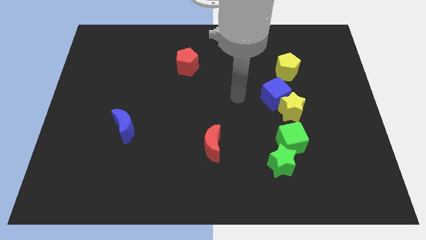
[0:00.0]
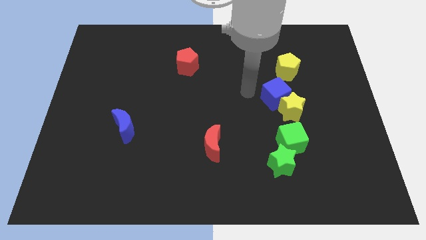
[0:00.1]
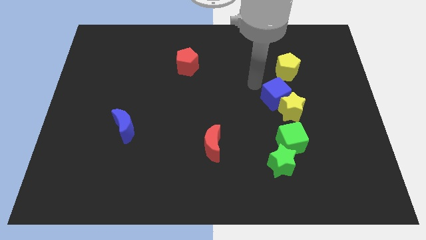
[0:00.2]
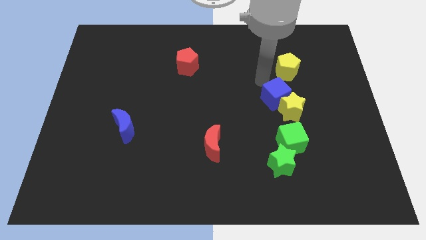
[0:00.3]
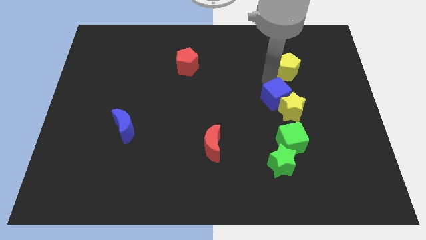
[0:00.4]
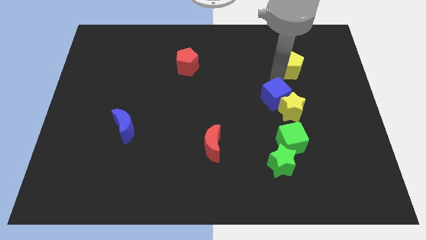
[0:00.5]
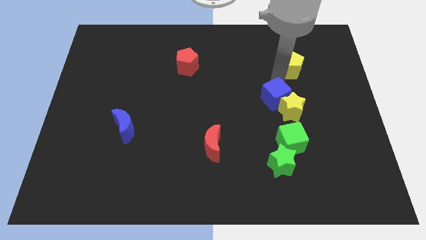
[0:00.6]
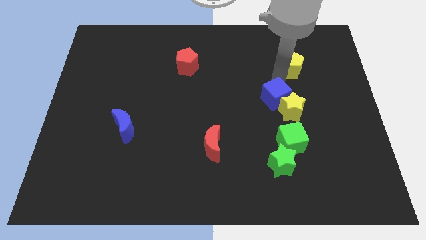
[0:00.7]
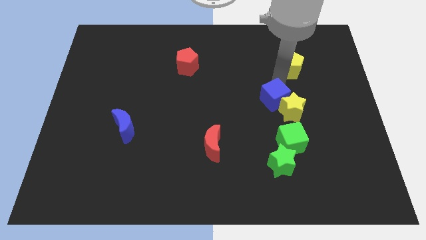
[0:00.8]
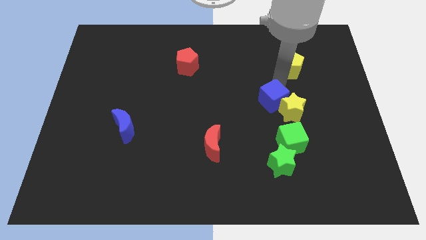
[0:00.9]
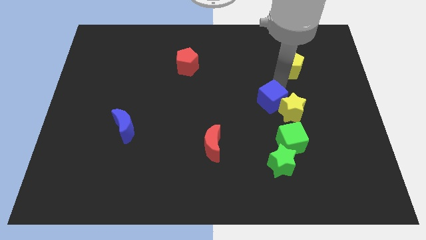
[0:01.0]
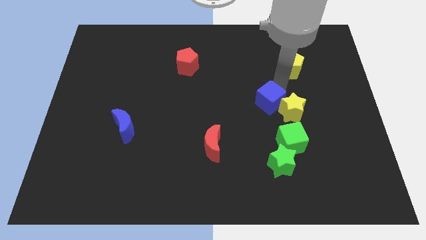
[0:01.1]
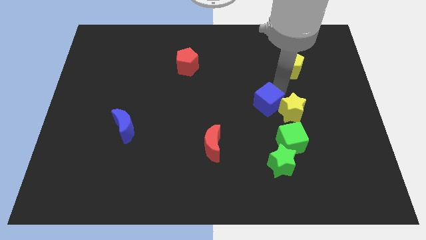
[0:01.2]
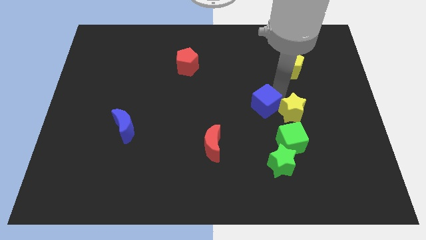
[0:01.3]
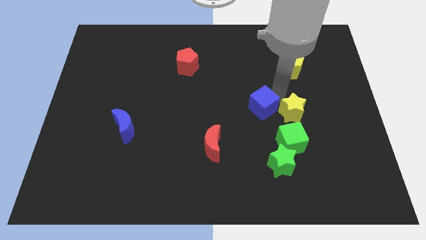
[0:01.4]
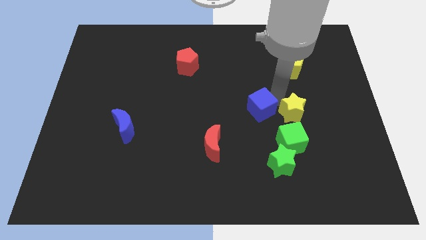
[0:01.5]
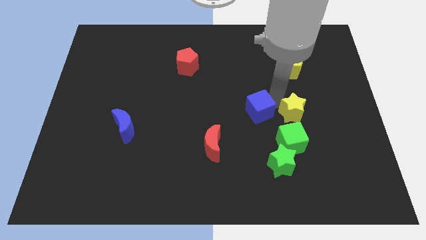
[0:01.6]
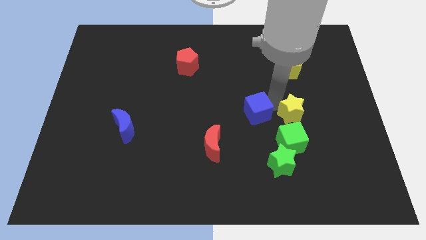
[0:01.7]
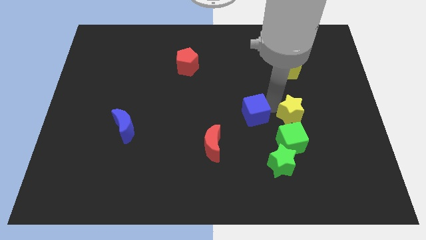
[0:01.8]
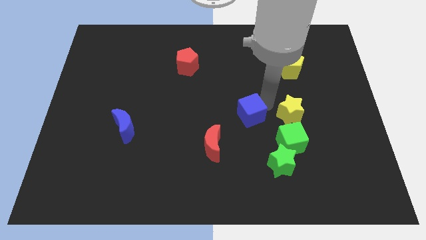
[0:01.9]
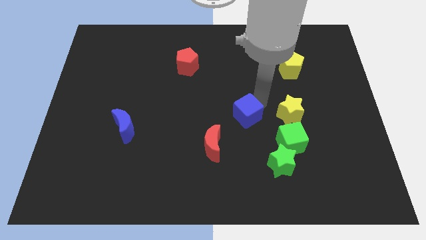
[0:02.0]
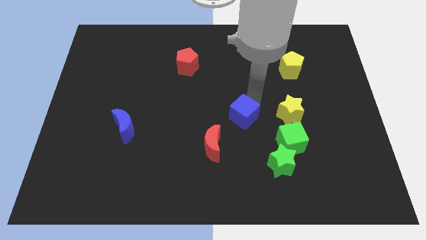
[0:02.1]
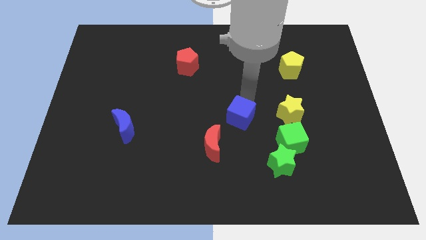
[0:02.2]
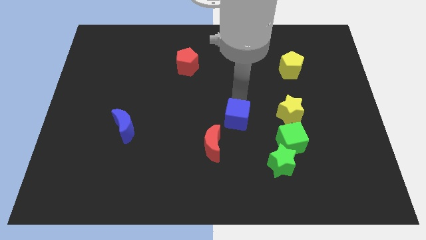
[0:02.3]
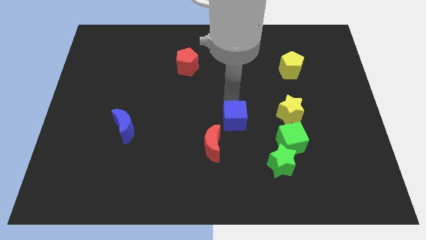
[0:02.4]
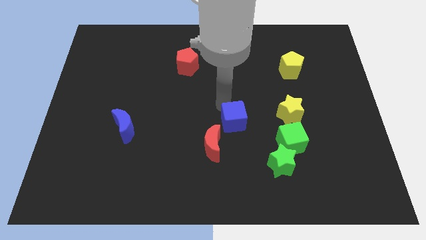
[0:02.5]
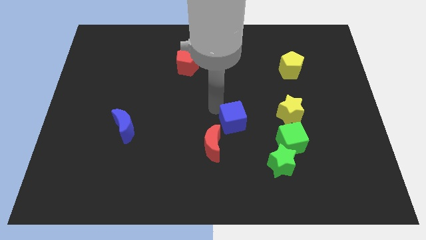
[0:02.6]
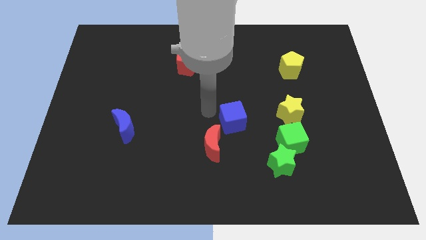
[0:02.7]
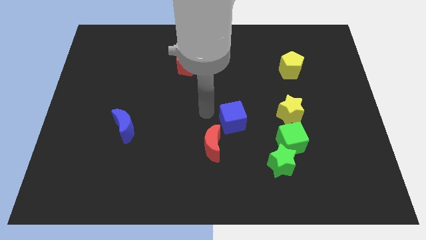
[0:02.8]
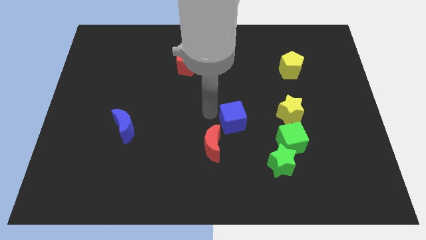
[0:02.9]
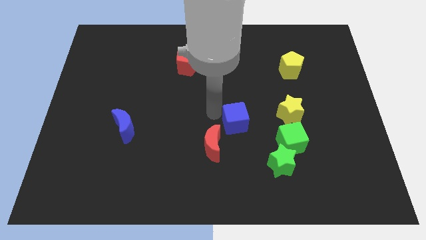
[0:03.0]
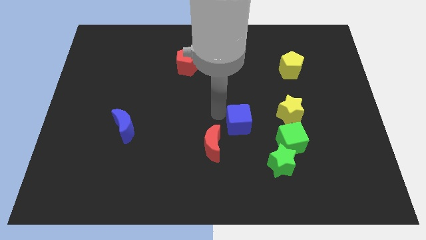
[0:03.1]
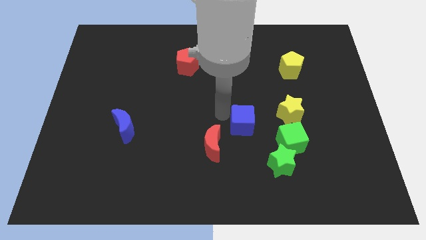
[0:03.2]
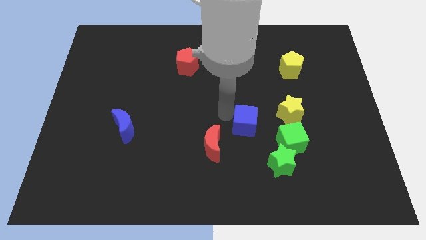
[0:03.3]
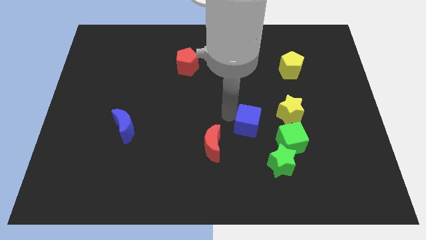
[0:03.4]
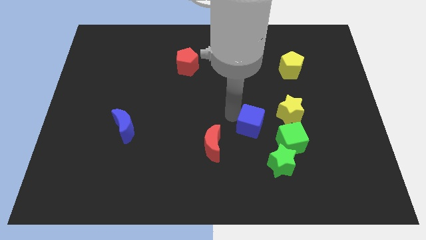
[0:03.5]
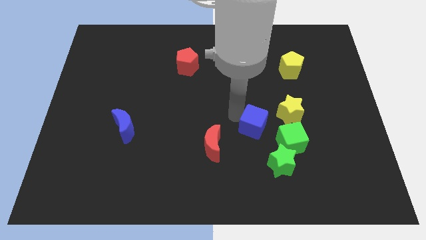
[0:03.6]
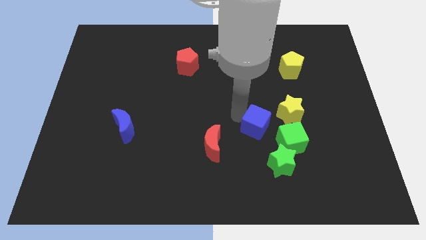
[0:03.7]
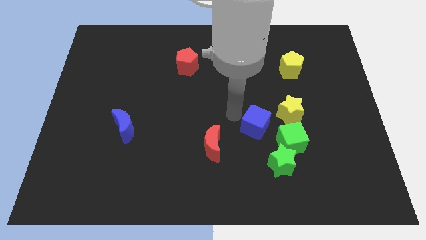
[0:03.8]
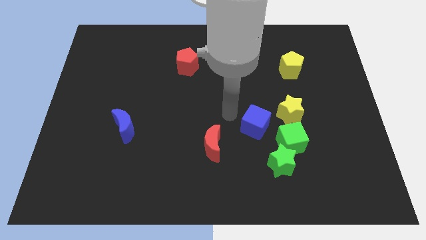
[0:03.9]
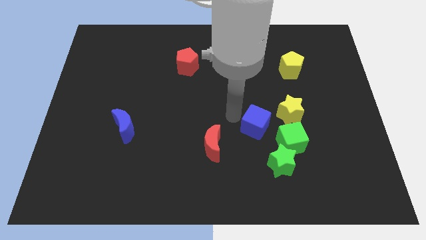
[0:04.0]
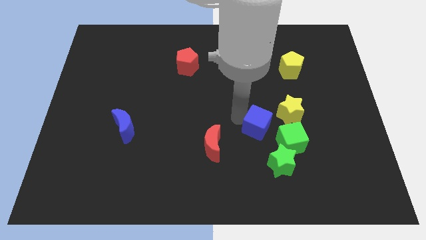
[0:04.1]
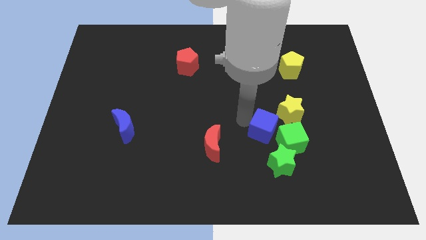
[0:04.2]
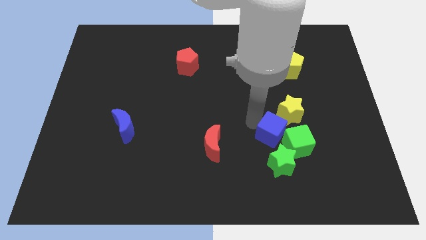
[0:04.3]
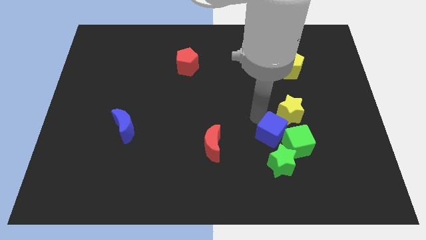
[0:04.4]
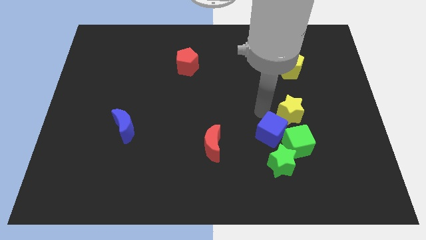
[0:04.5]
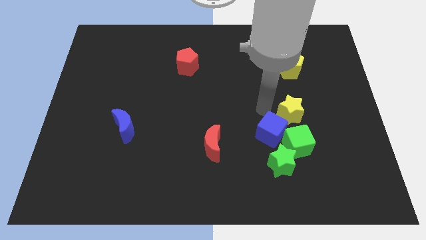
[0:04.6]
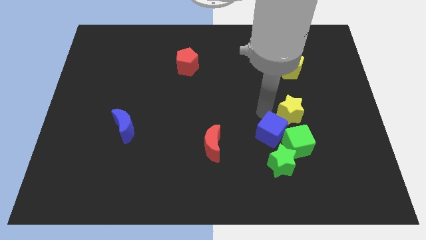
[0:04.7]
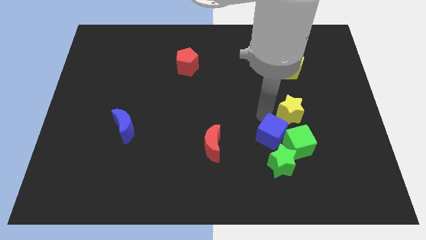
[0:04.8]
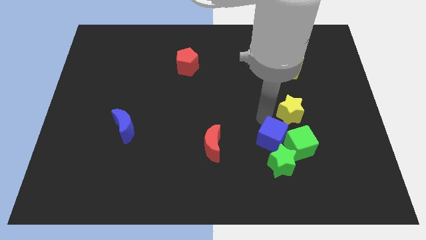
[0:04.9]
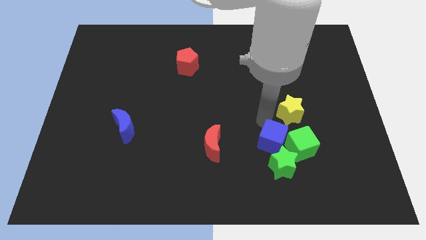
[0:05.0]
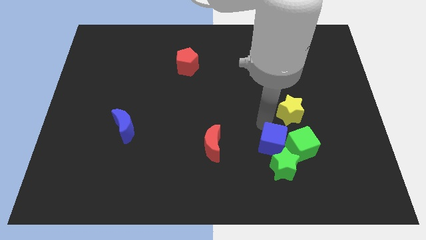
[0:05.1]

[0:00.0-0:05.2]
put the blue cube next to the green star

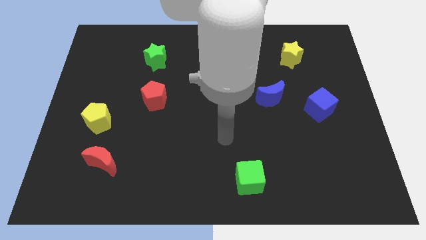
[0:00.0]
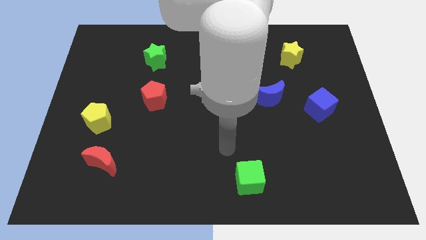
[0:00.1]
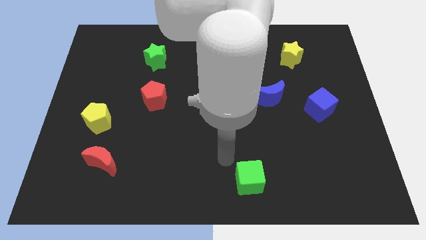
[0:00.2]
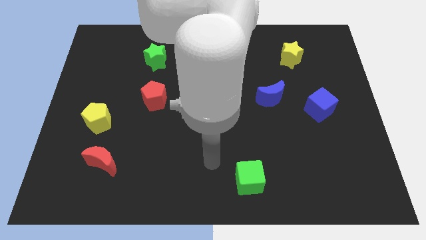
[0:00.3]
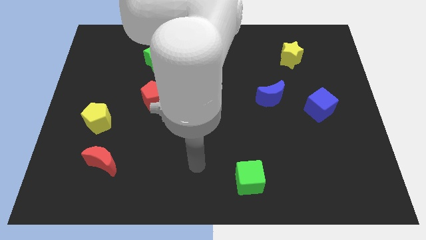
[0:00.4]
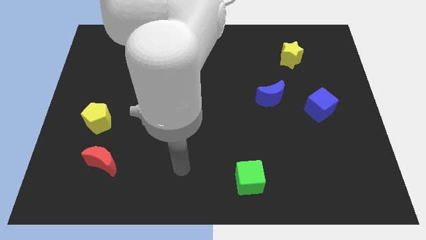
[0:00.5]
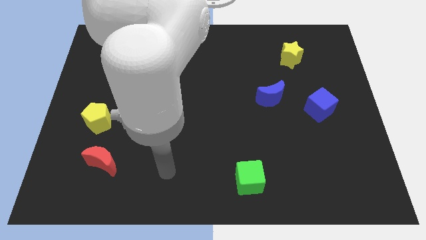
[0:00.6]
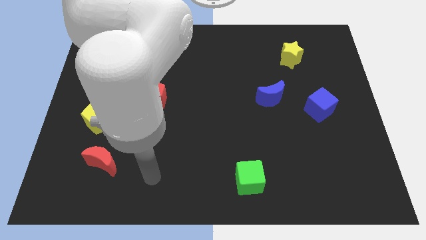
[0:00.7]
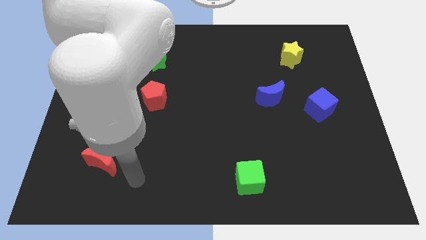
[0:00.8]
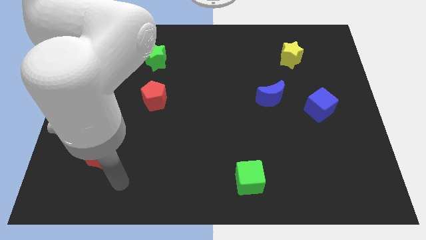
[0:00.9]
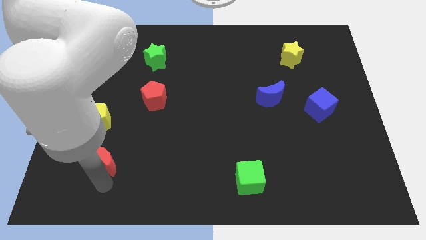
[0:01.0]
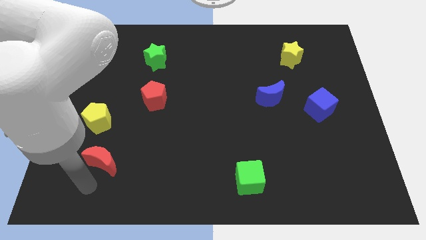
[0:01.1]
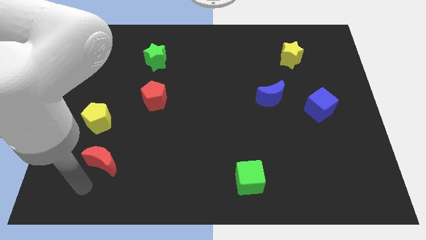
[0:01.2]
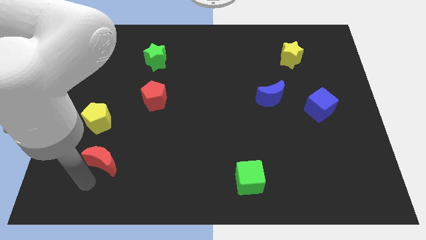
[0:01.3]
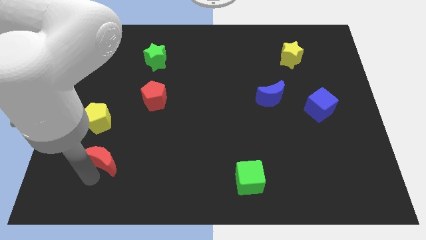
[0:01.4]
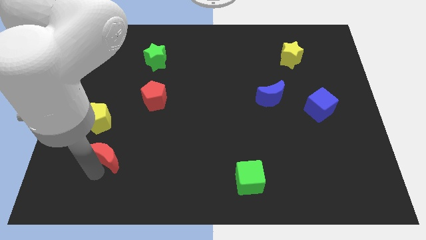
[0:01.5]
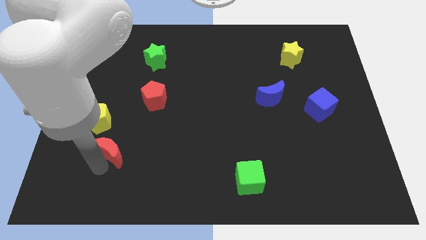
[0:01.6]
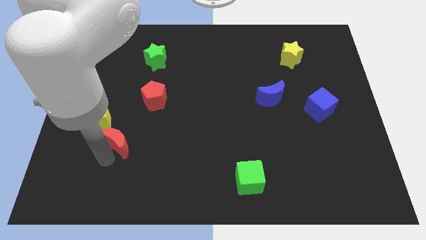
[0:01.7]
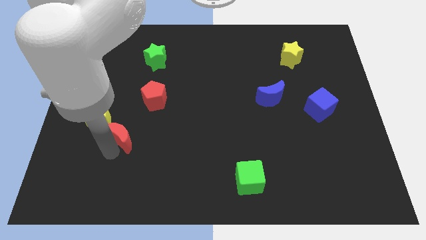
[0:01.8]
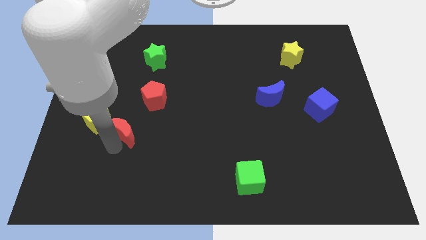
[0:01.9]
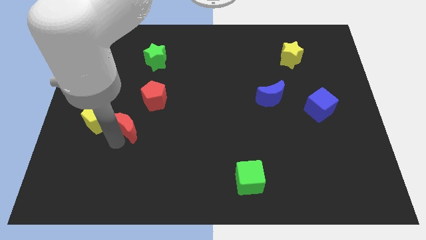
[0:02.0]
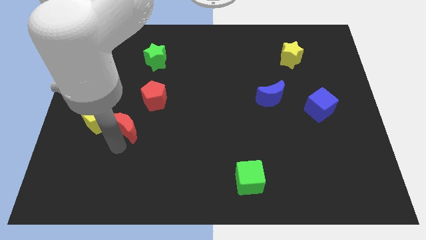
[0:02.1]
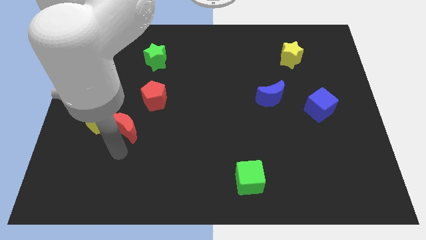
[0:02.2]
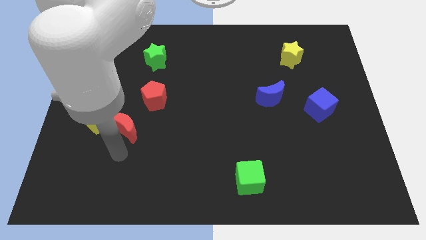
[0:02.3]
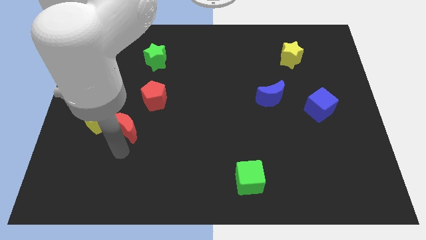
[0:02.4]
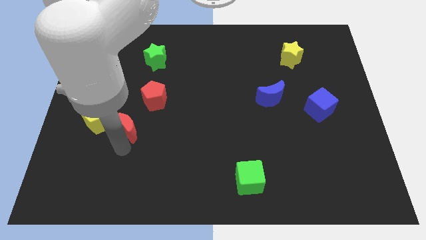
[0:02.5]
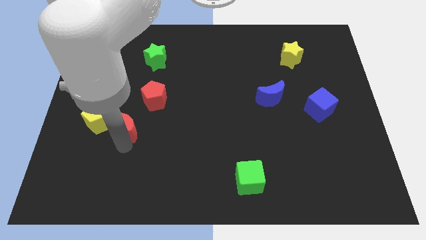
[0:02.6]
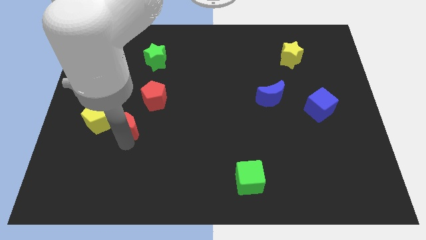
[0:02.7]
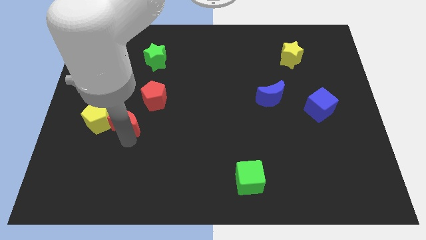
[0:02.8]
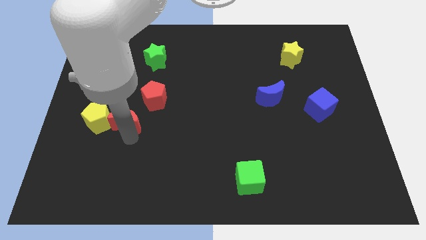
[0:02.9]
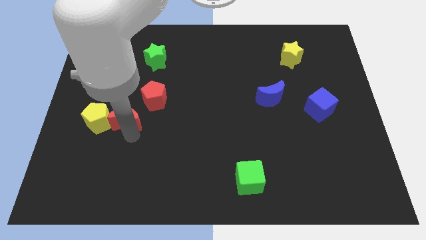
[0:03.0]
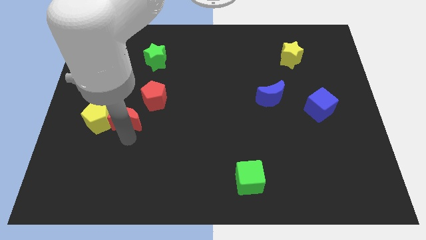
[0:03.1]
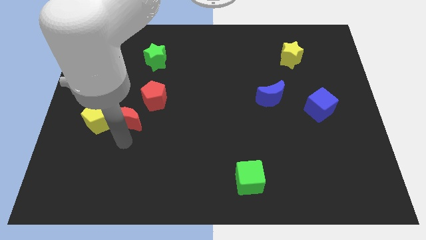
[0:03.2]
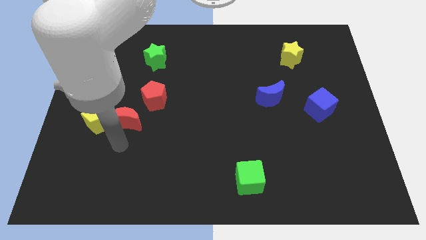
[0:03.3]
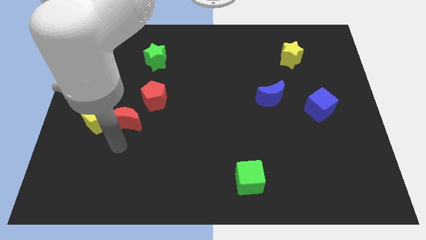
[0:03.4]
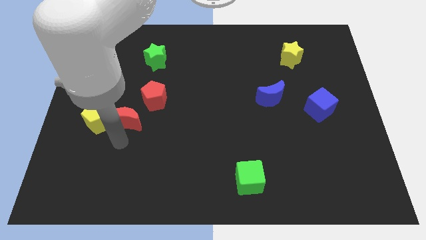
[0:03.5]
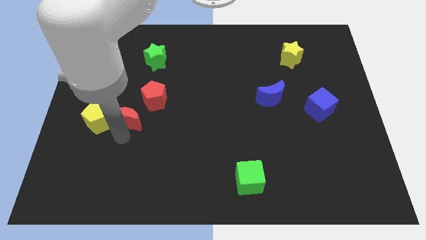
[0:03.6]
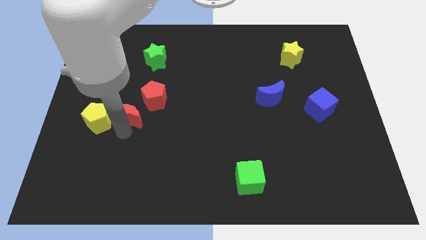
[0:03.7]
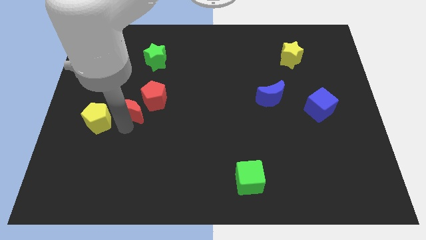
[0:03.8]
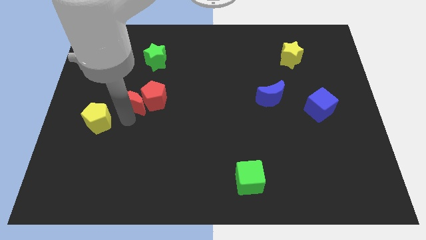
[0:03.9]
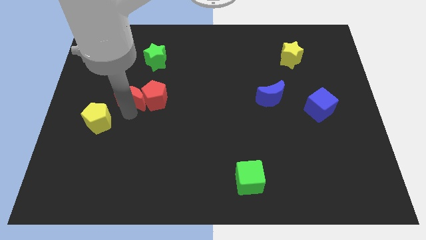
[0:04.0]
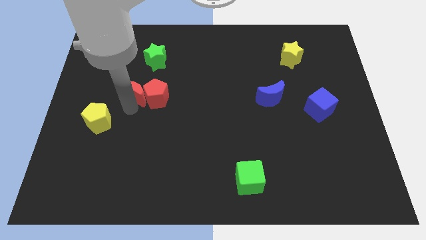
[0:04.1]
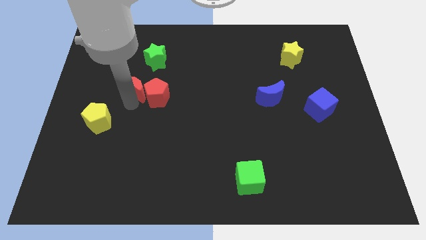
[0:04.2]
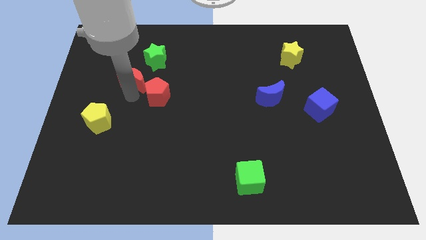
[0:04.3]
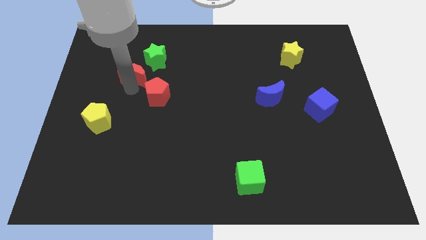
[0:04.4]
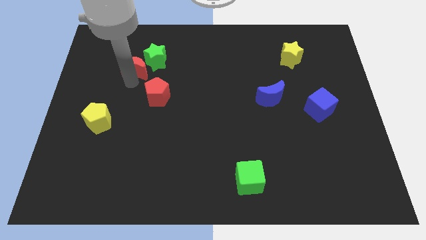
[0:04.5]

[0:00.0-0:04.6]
move the red moon to the green star
